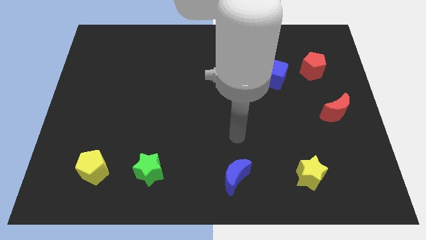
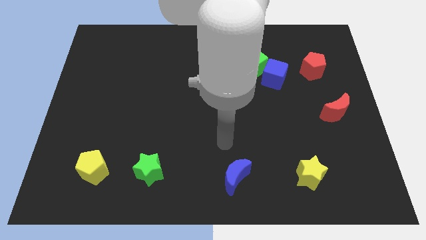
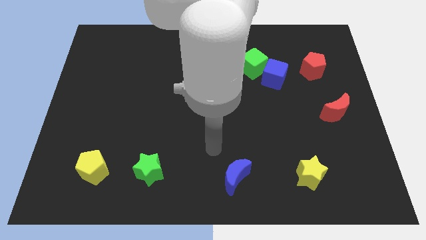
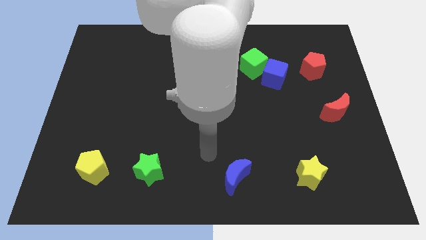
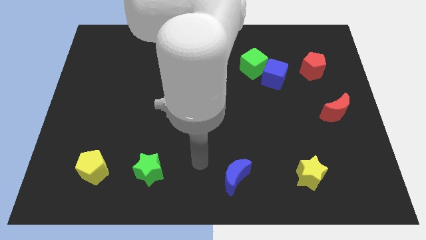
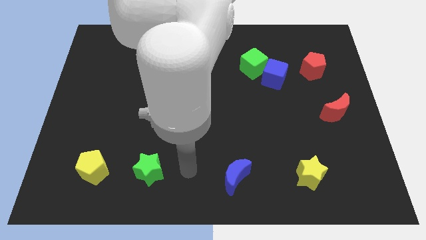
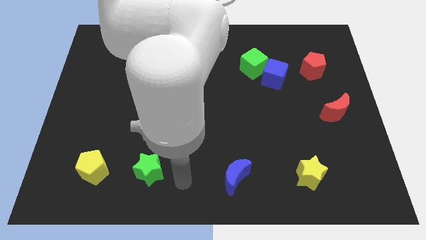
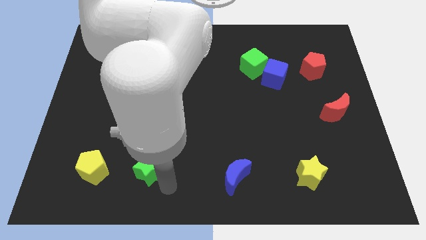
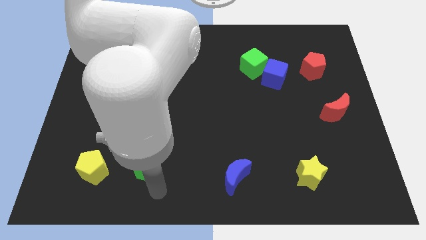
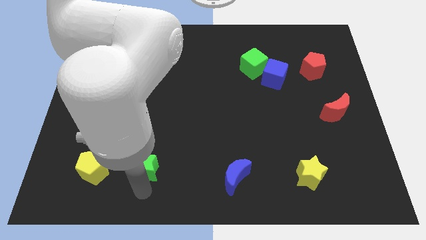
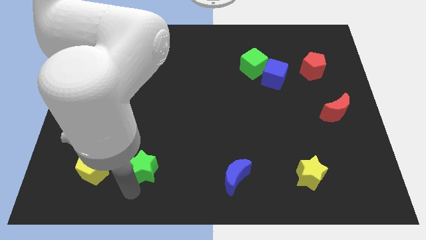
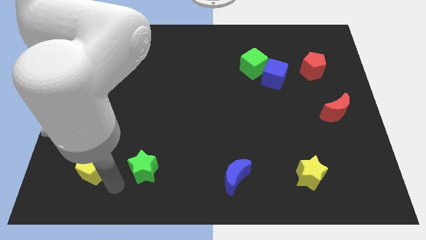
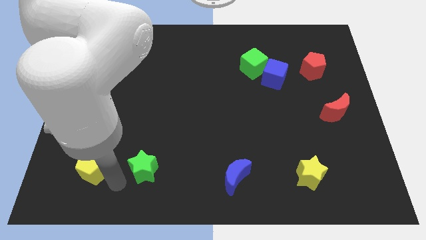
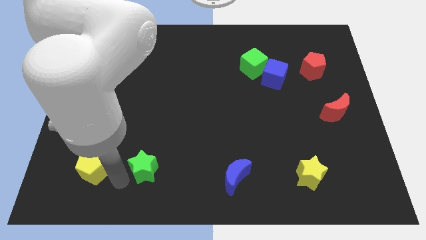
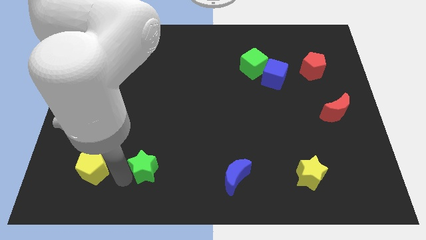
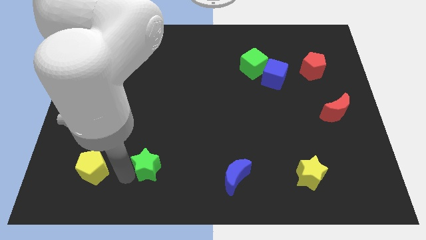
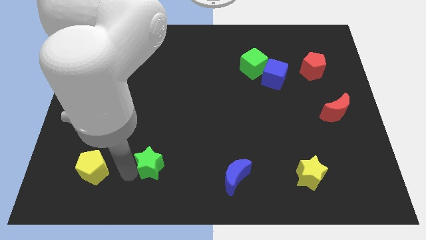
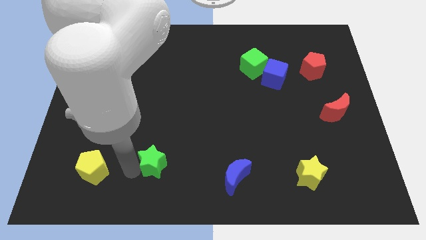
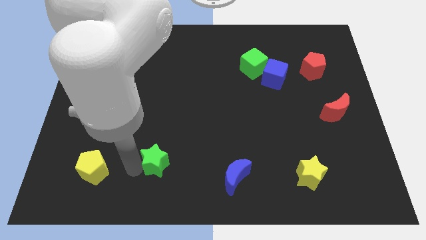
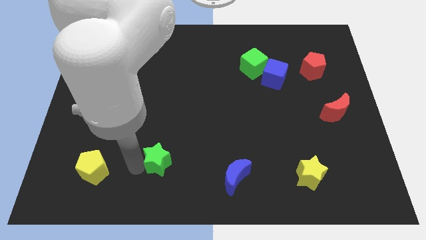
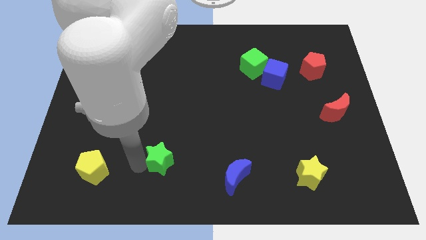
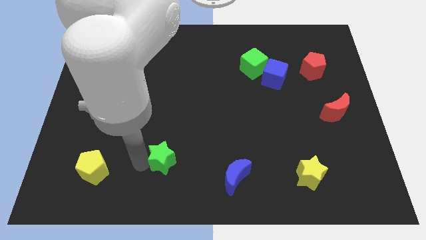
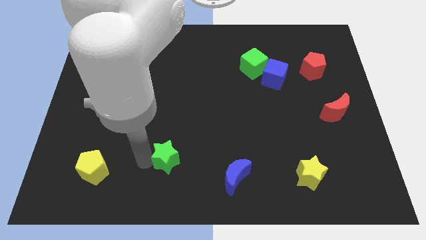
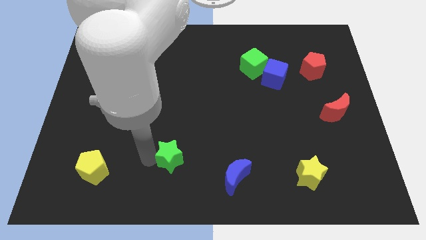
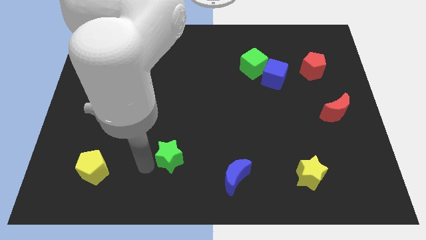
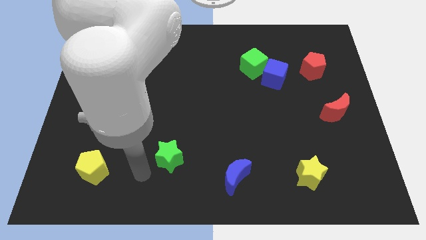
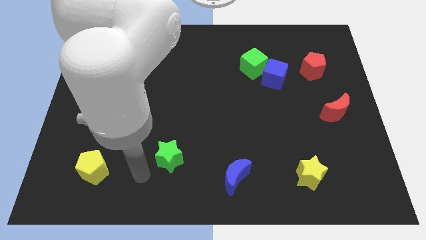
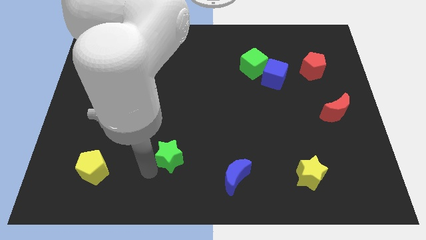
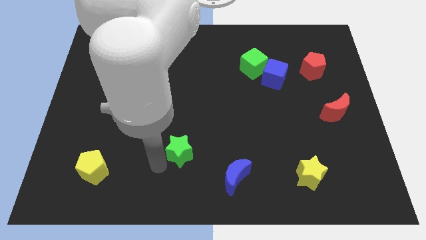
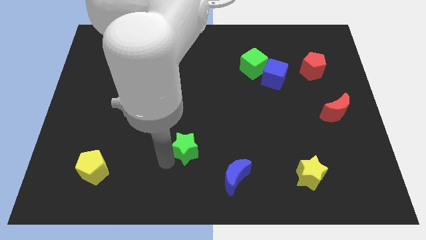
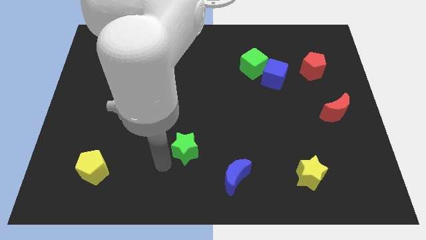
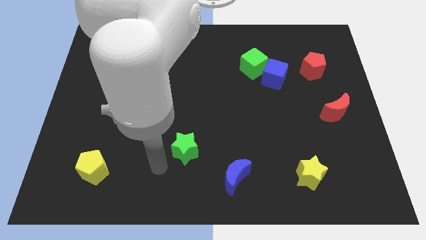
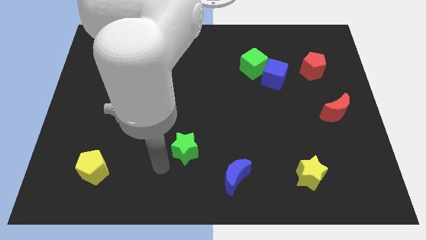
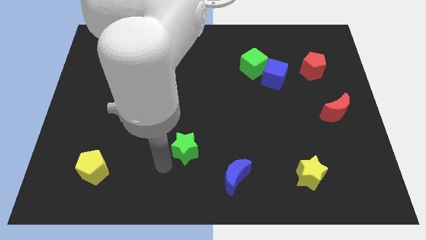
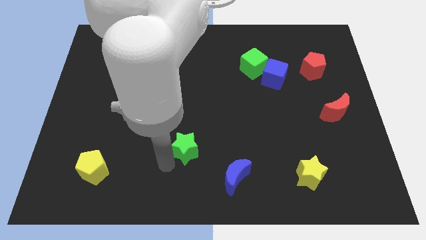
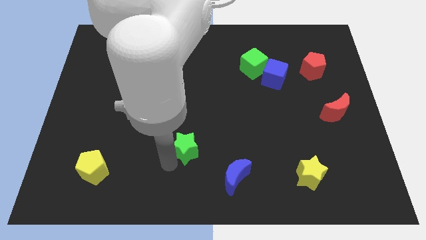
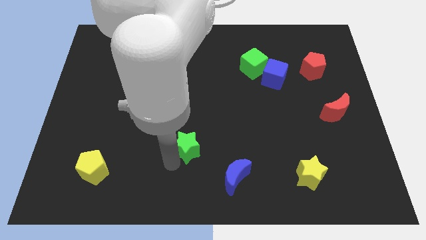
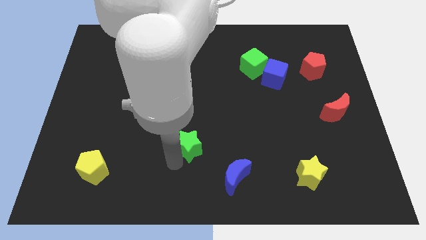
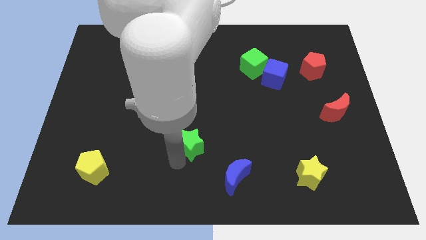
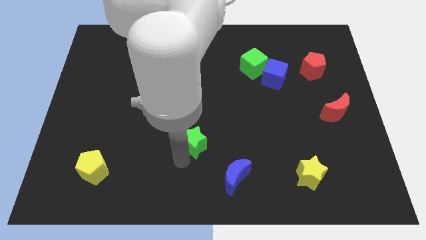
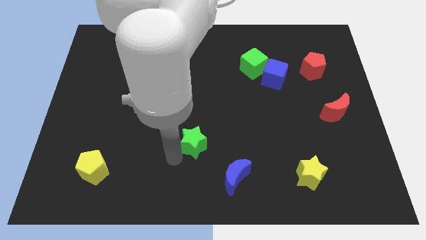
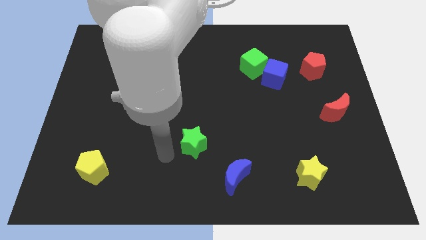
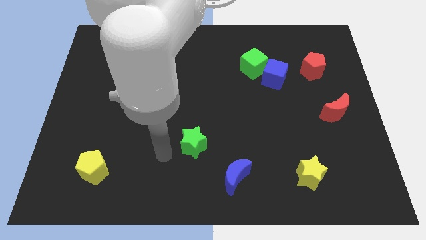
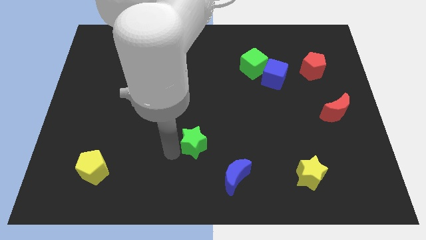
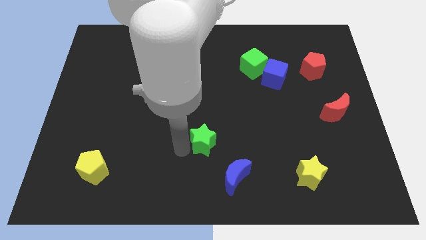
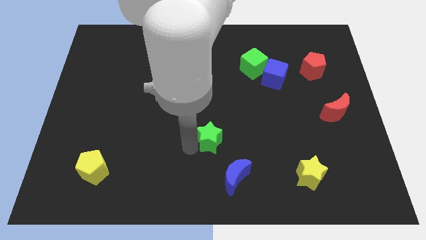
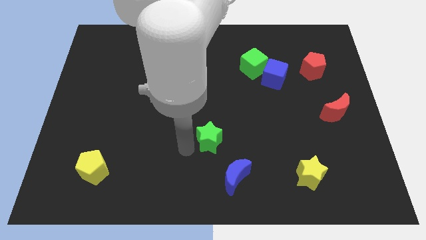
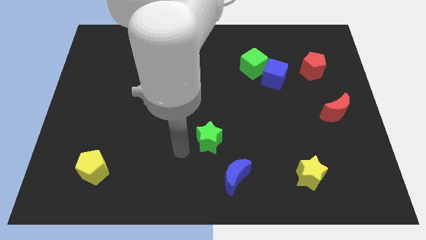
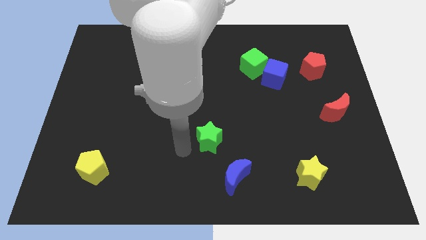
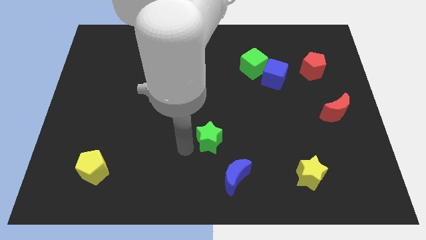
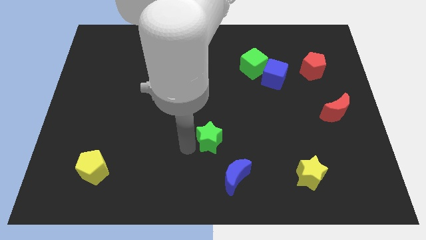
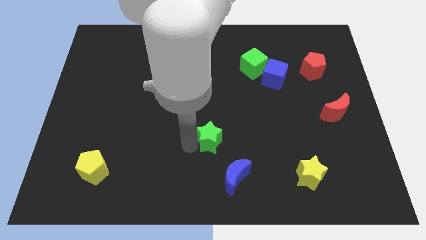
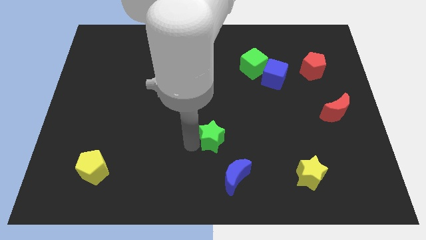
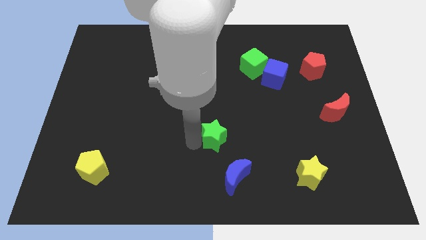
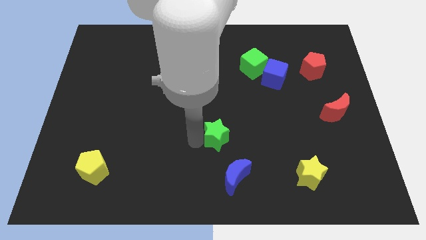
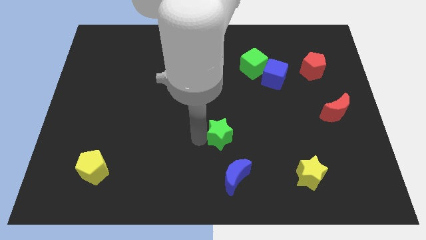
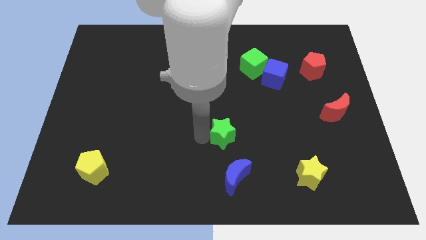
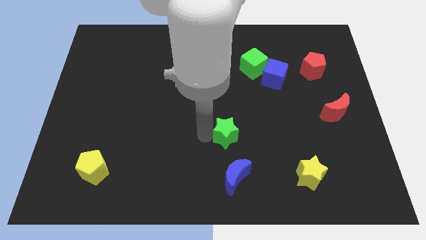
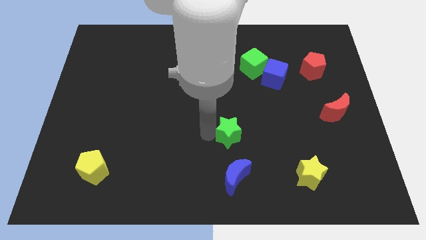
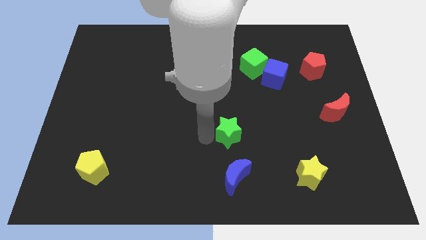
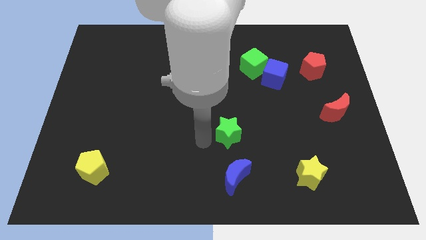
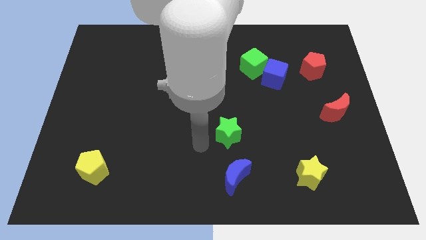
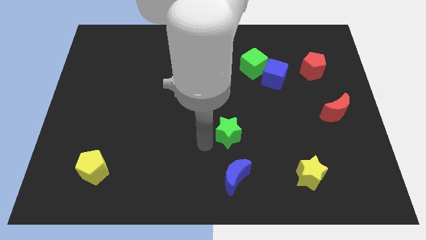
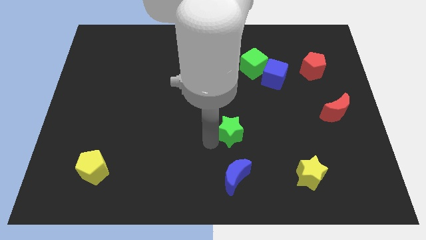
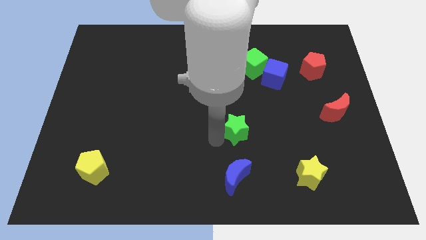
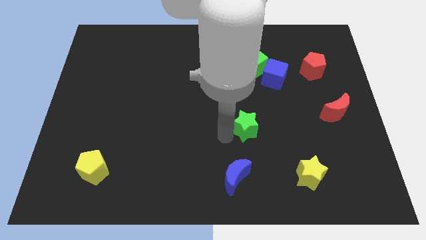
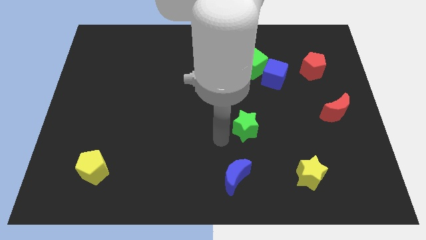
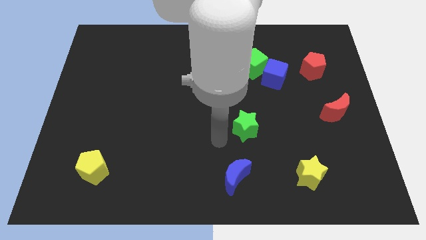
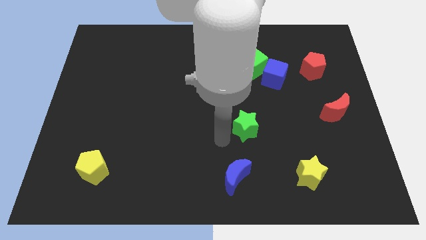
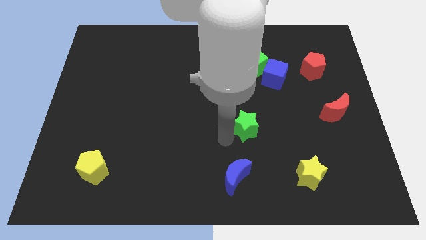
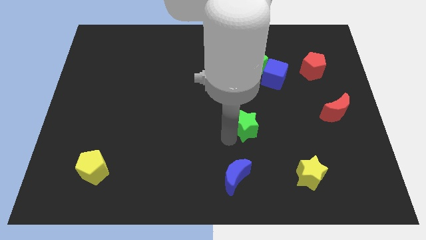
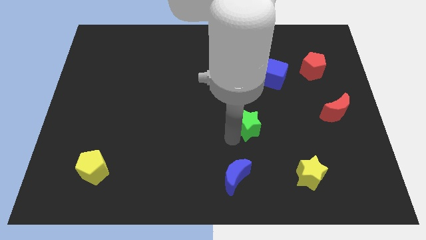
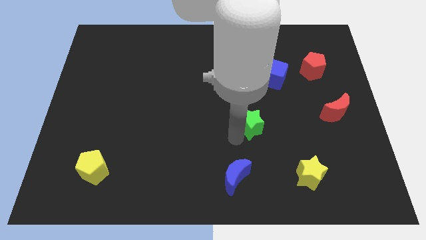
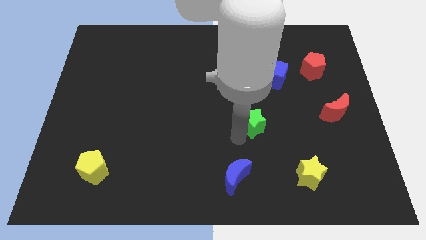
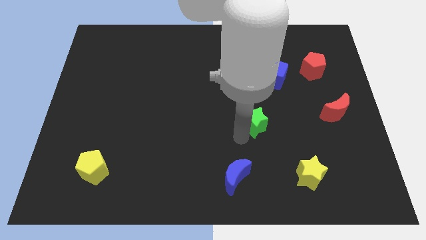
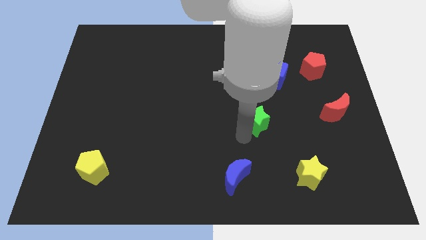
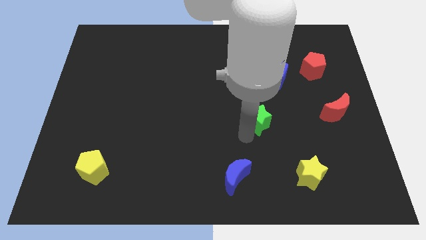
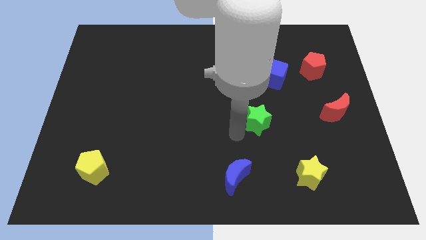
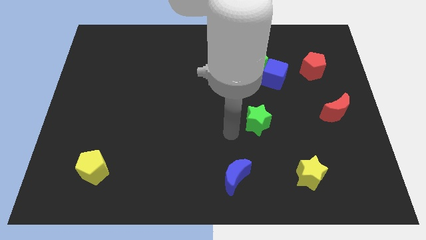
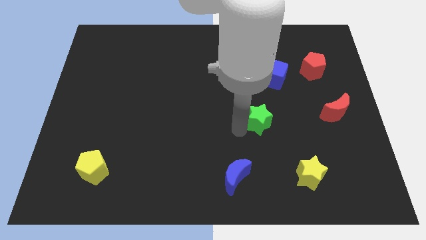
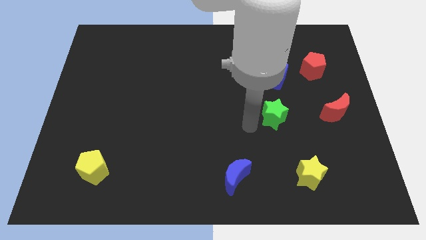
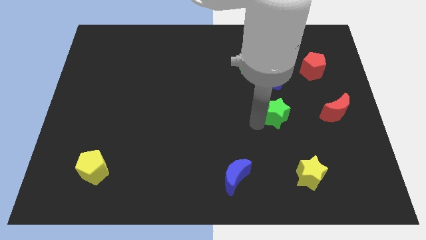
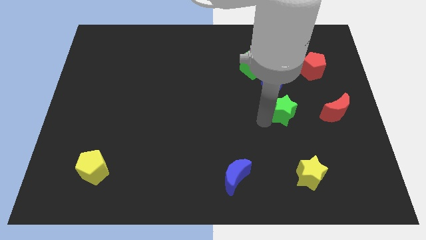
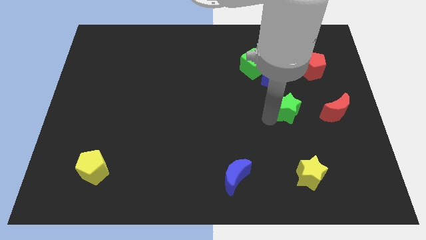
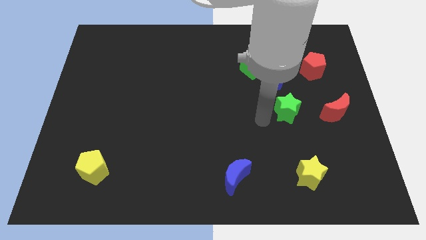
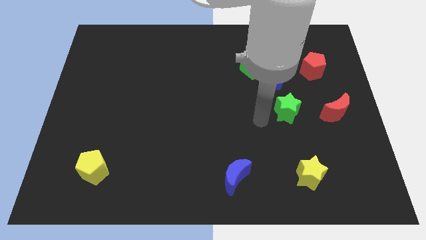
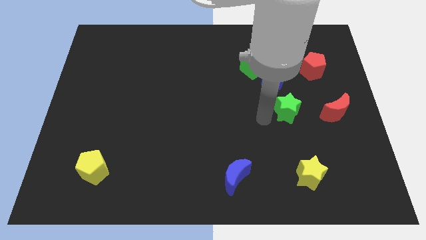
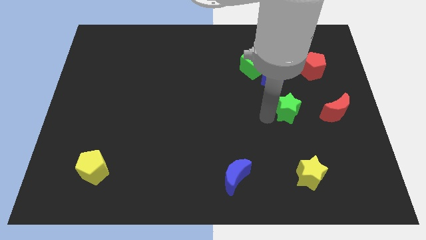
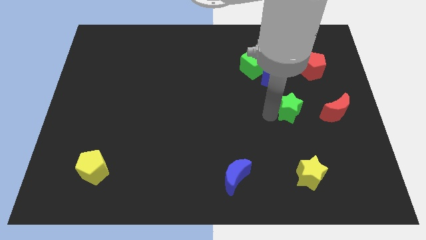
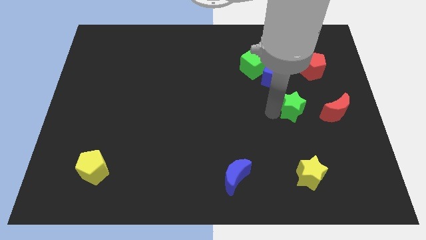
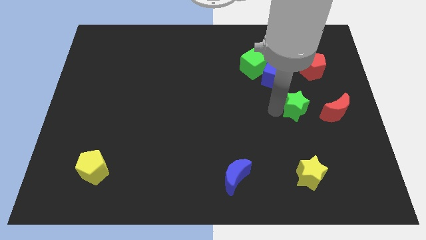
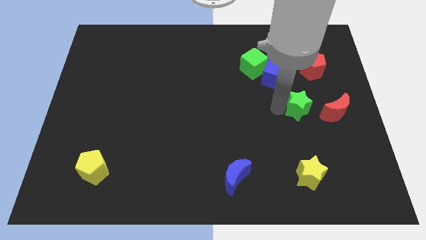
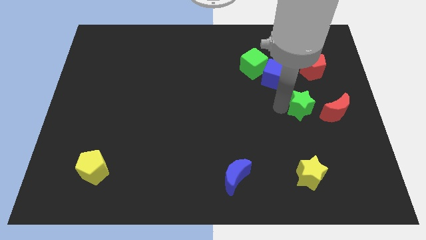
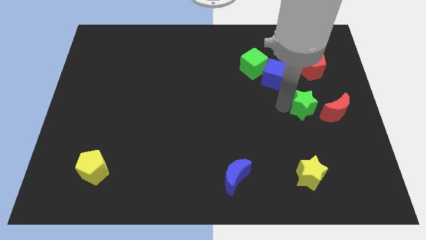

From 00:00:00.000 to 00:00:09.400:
put the green star to the bottom of the red pentagon
